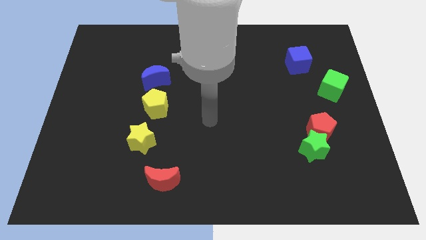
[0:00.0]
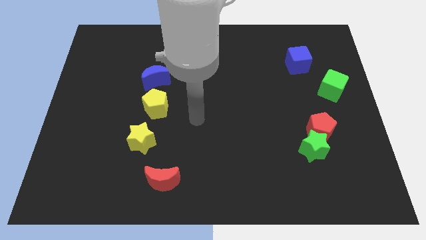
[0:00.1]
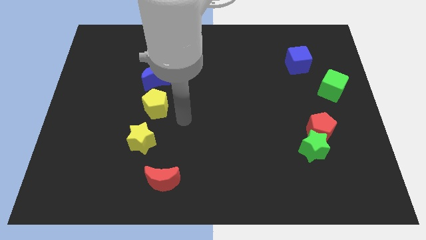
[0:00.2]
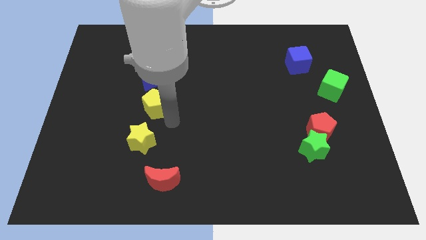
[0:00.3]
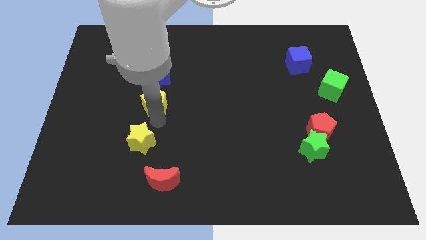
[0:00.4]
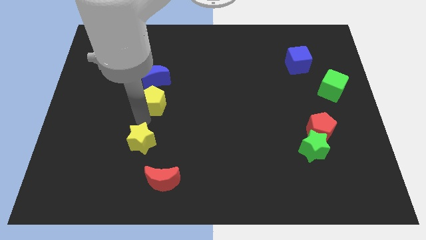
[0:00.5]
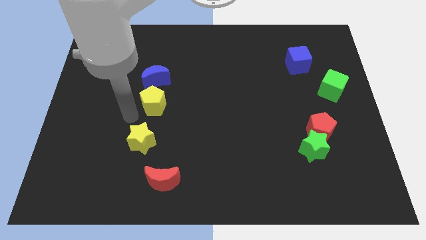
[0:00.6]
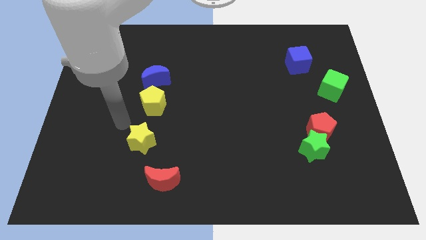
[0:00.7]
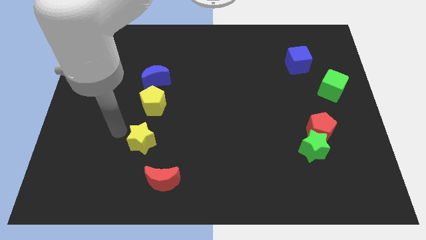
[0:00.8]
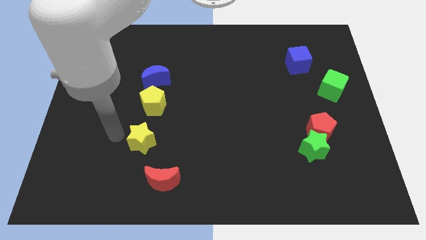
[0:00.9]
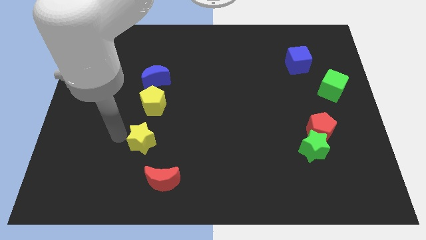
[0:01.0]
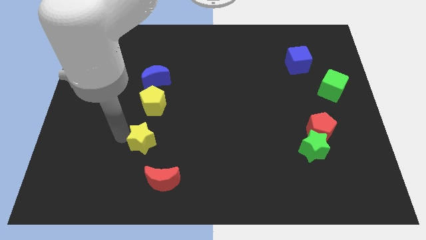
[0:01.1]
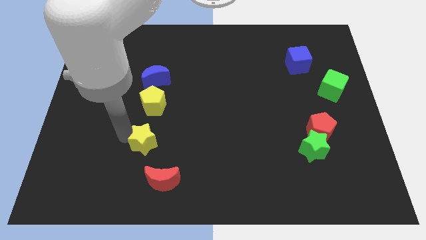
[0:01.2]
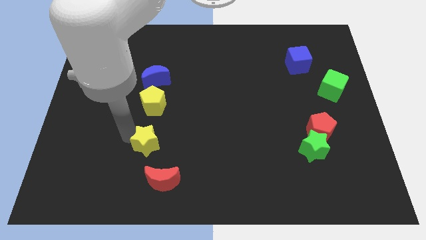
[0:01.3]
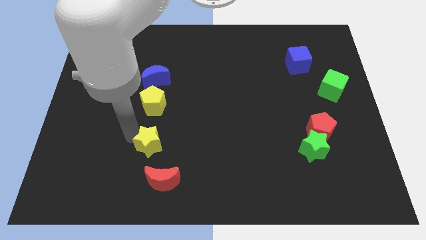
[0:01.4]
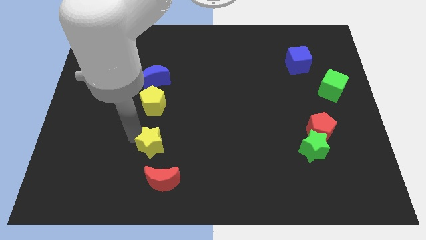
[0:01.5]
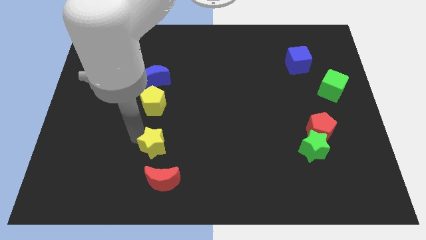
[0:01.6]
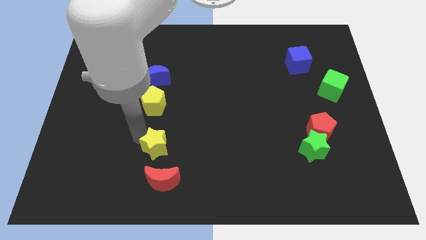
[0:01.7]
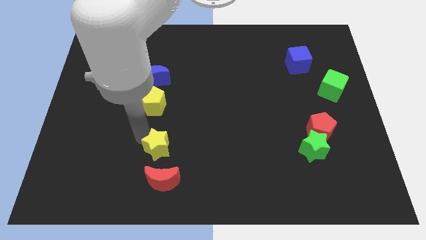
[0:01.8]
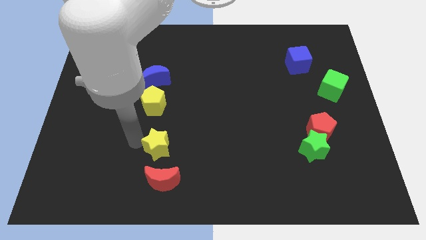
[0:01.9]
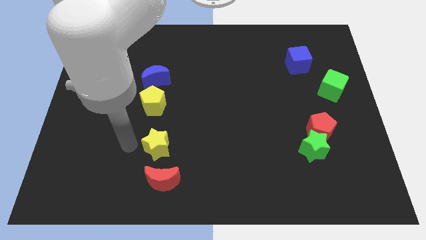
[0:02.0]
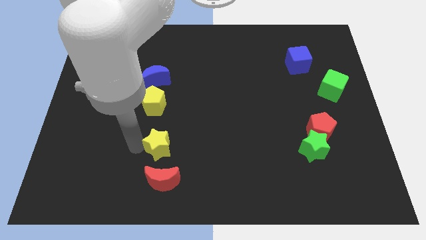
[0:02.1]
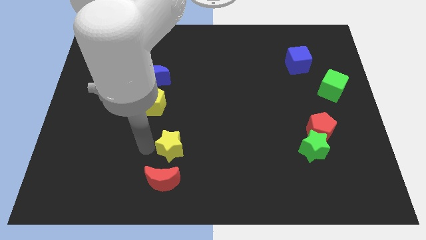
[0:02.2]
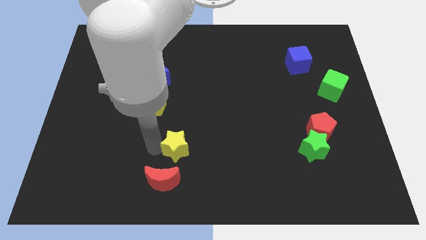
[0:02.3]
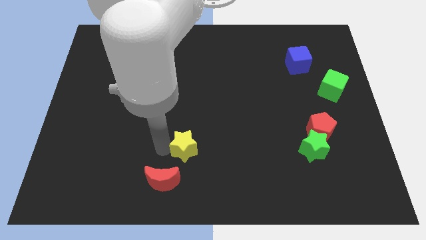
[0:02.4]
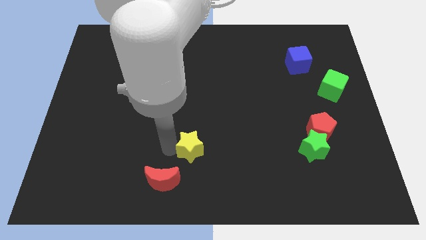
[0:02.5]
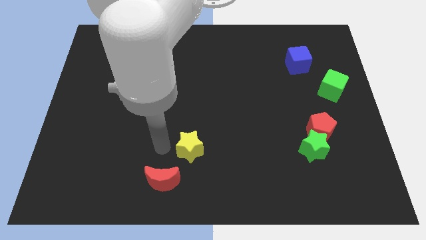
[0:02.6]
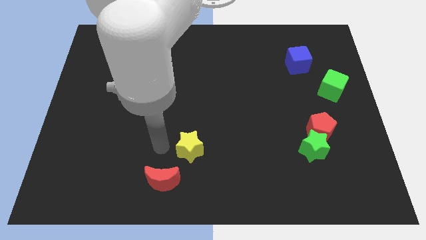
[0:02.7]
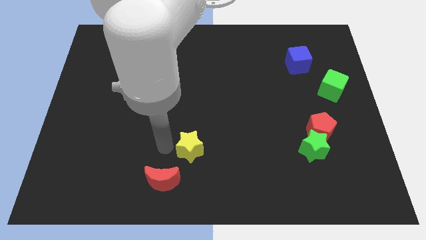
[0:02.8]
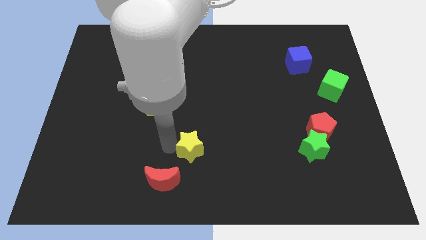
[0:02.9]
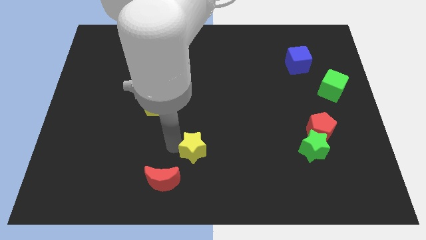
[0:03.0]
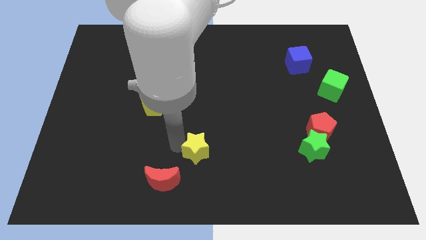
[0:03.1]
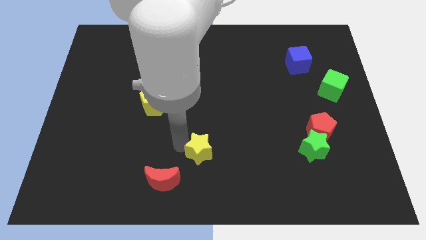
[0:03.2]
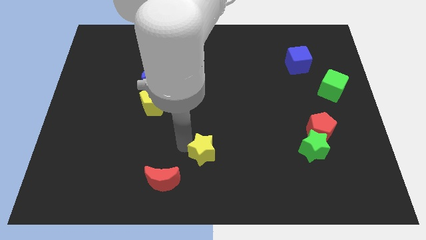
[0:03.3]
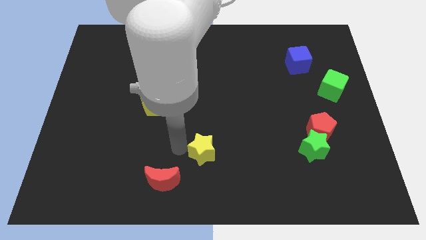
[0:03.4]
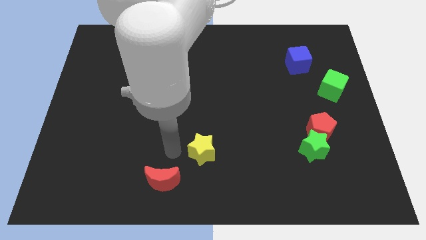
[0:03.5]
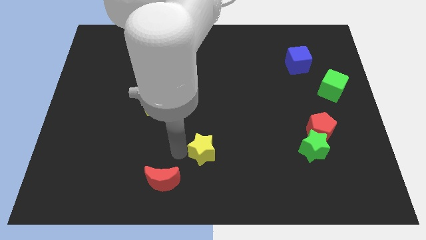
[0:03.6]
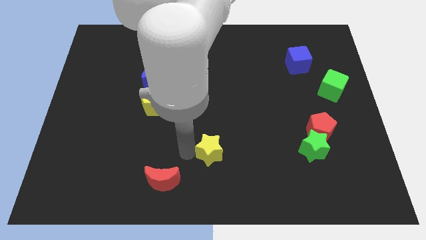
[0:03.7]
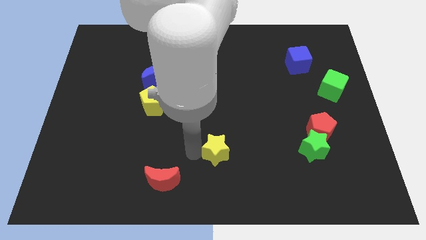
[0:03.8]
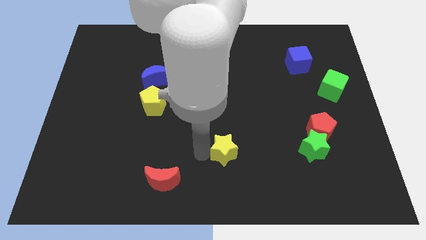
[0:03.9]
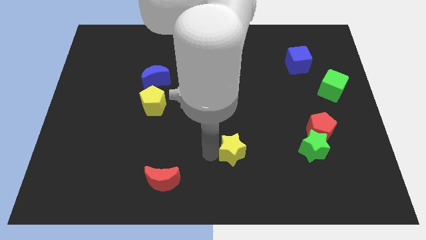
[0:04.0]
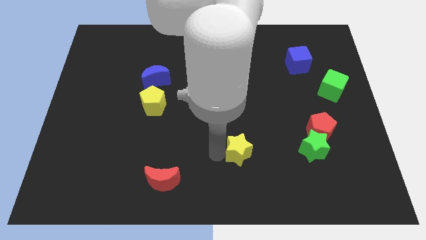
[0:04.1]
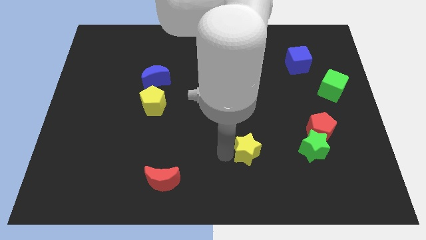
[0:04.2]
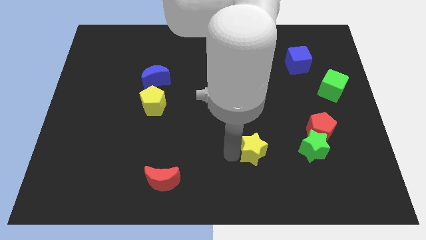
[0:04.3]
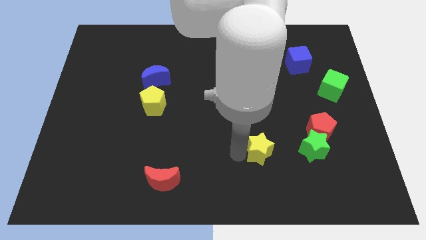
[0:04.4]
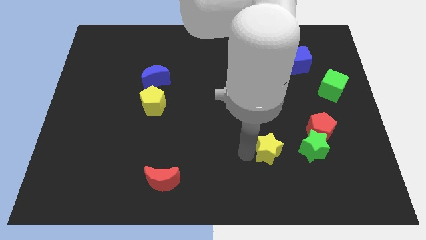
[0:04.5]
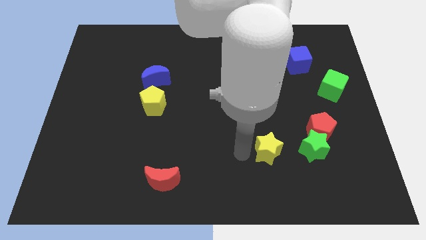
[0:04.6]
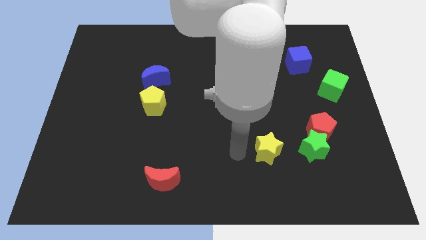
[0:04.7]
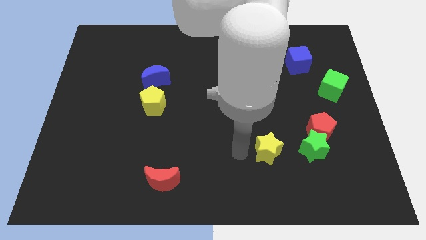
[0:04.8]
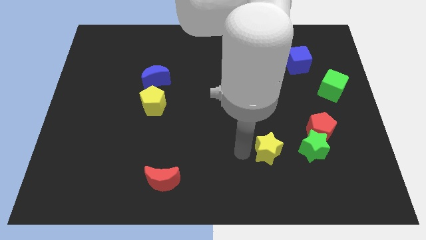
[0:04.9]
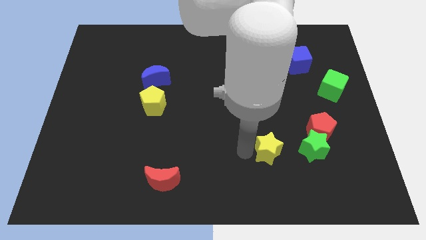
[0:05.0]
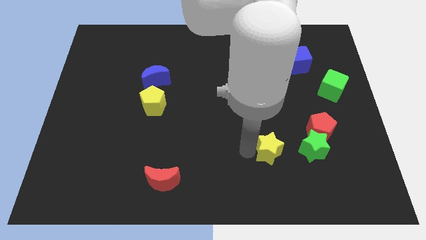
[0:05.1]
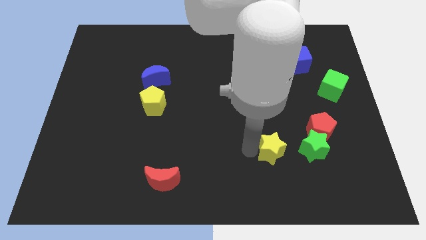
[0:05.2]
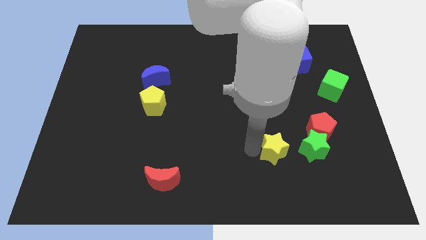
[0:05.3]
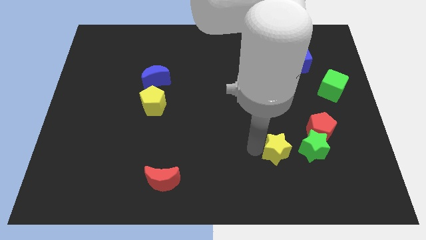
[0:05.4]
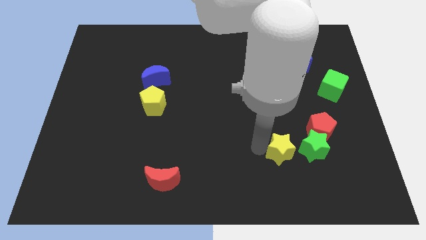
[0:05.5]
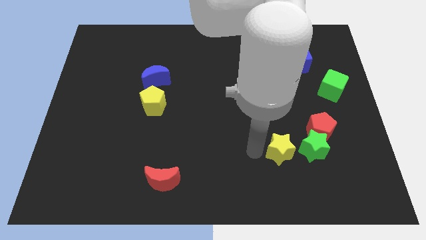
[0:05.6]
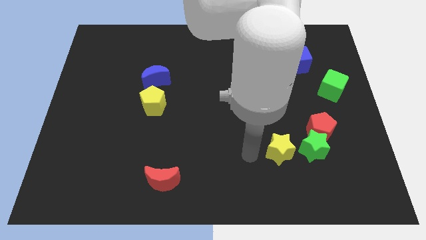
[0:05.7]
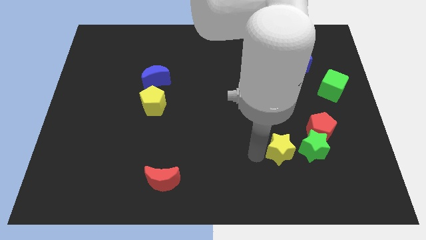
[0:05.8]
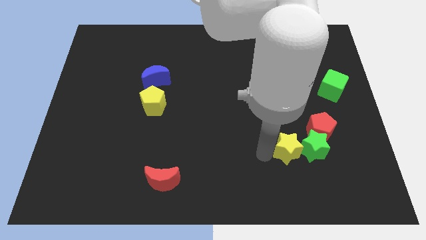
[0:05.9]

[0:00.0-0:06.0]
put the yellow star towards the green star

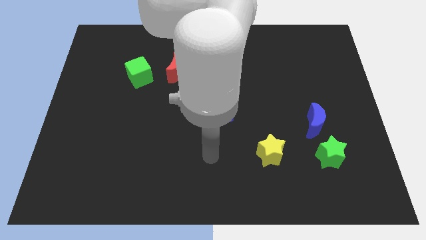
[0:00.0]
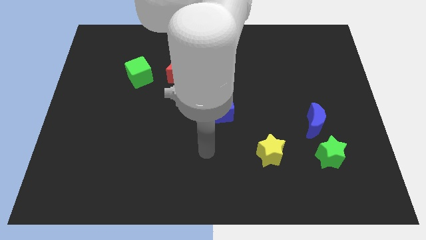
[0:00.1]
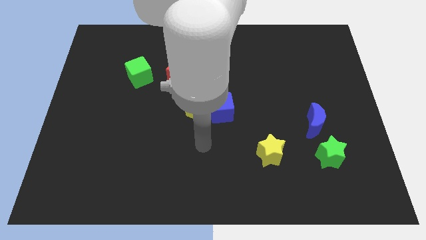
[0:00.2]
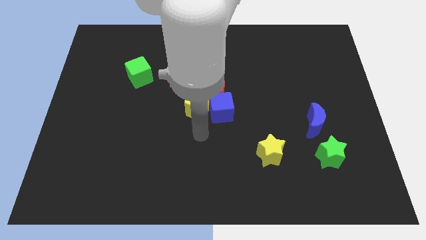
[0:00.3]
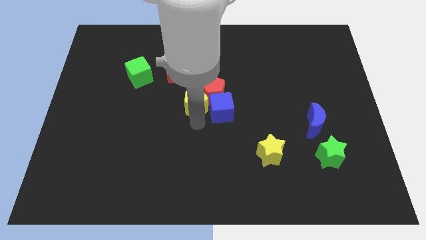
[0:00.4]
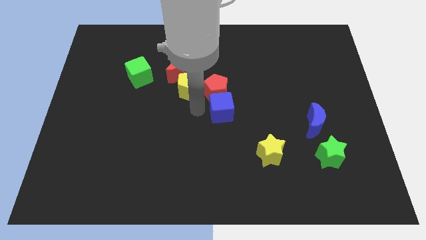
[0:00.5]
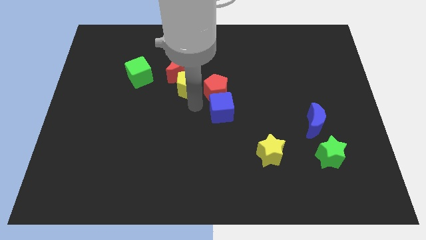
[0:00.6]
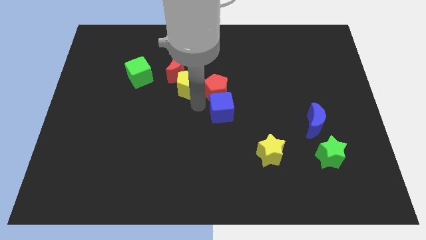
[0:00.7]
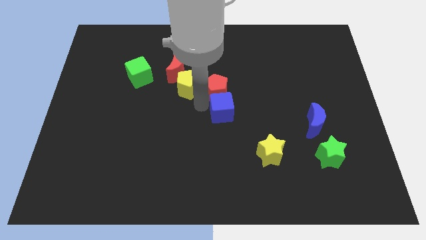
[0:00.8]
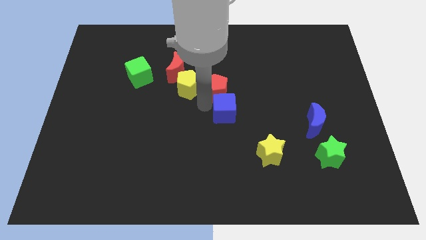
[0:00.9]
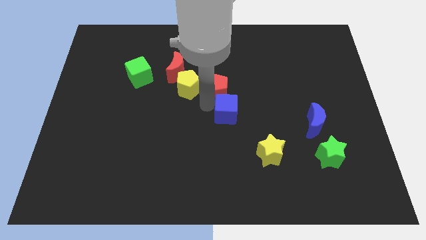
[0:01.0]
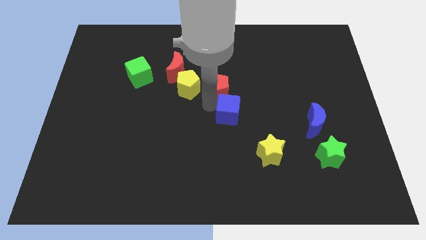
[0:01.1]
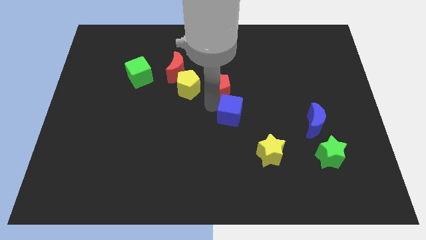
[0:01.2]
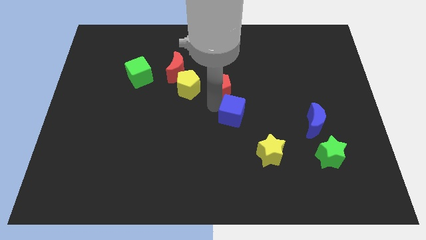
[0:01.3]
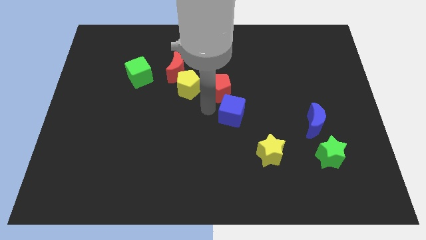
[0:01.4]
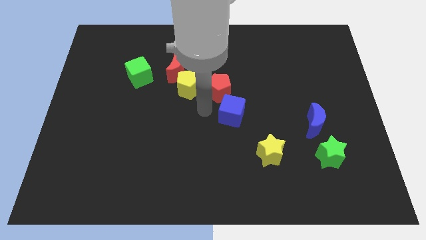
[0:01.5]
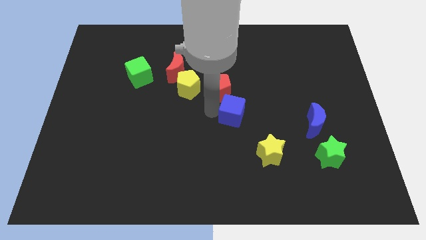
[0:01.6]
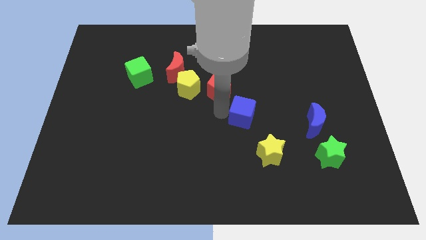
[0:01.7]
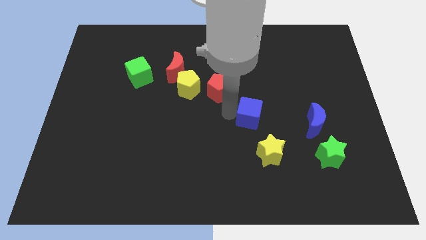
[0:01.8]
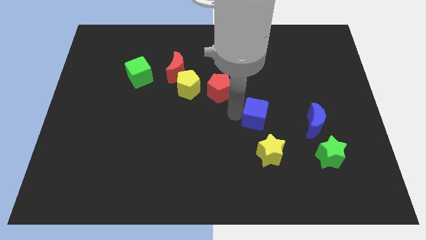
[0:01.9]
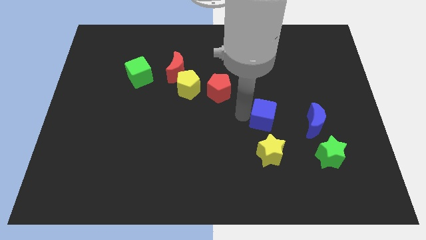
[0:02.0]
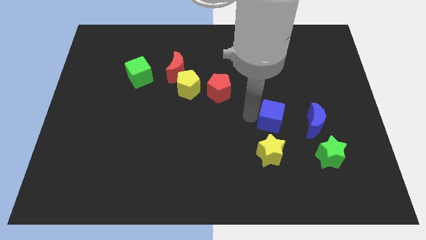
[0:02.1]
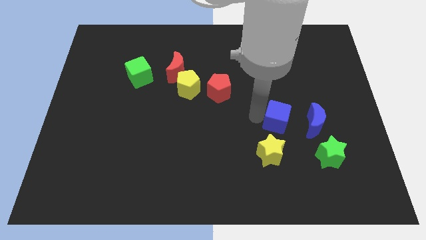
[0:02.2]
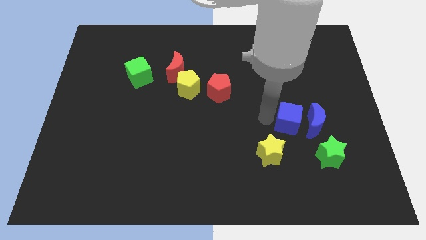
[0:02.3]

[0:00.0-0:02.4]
move the blue cube towards the blue moon
